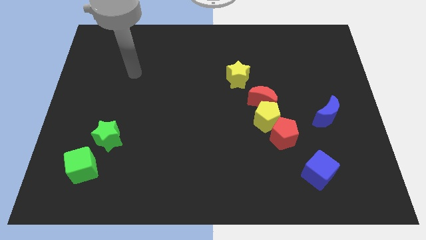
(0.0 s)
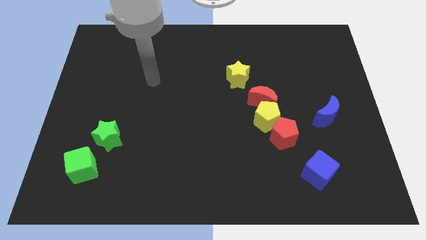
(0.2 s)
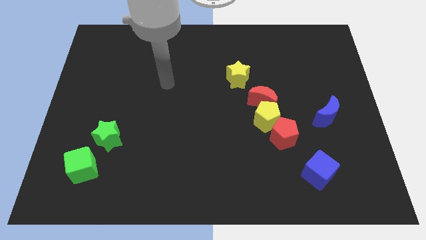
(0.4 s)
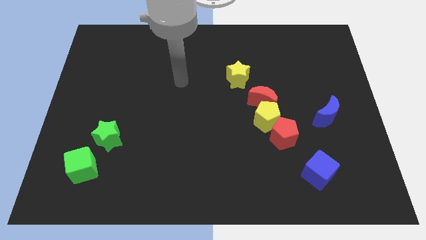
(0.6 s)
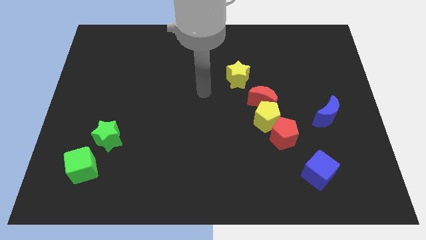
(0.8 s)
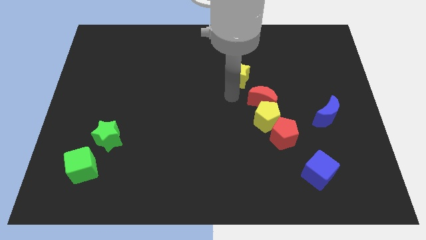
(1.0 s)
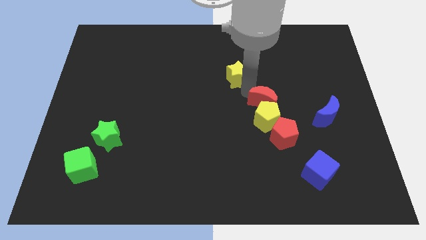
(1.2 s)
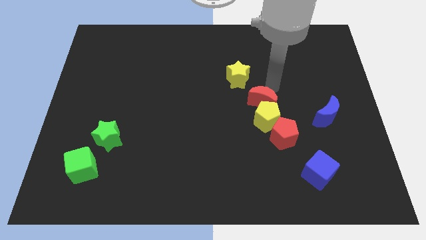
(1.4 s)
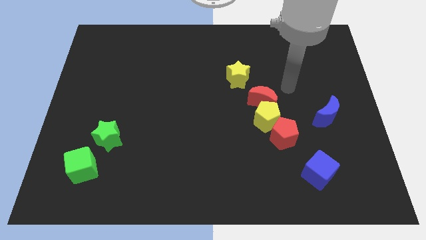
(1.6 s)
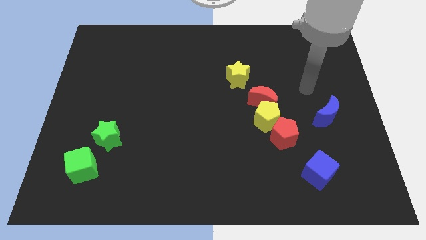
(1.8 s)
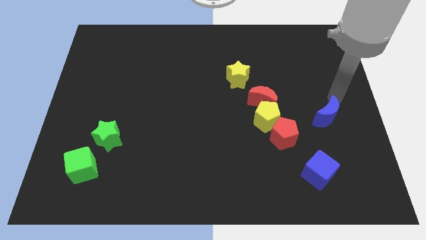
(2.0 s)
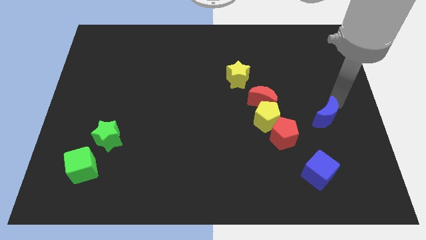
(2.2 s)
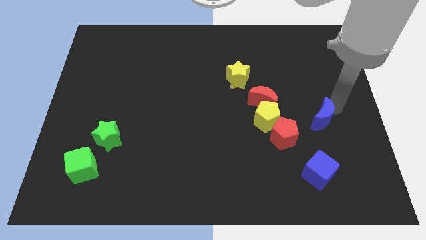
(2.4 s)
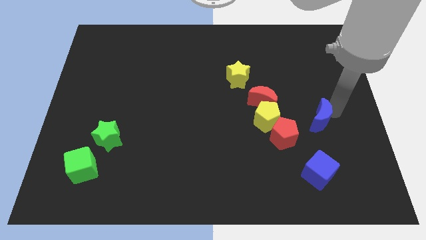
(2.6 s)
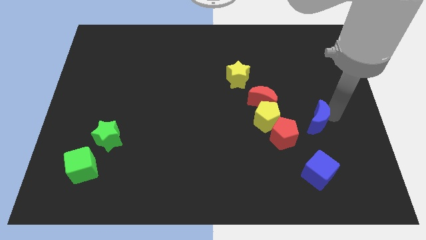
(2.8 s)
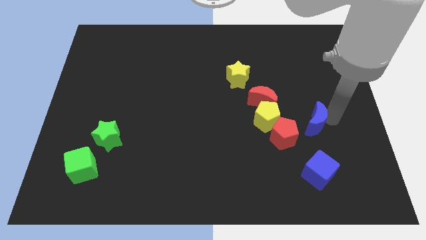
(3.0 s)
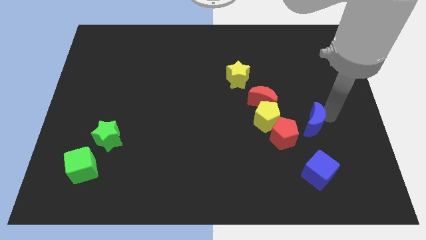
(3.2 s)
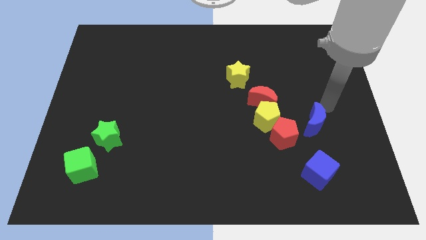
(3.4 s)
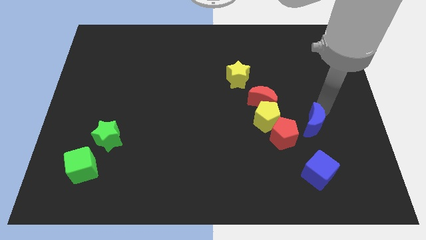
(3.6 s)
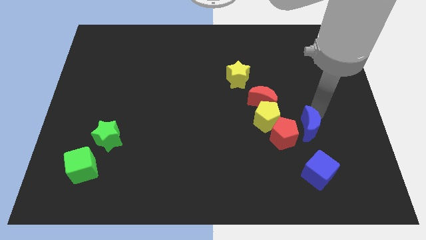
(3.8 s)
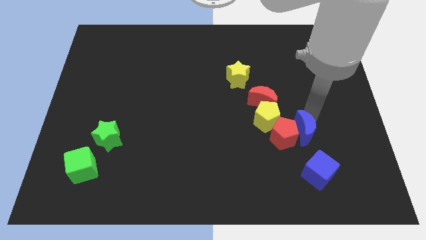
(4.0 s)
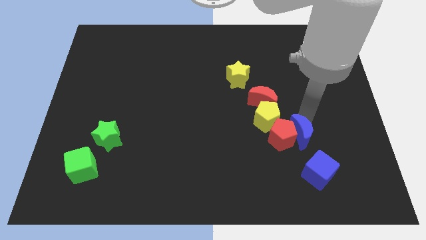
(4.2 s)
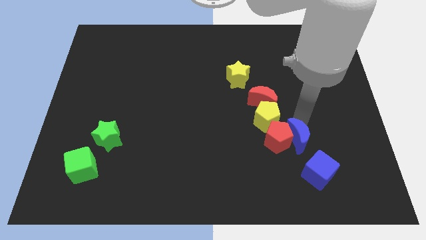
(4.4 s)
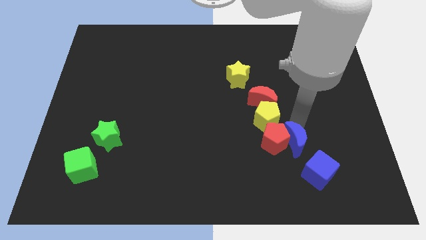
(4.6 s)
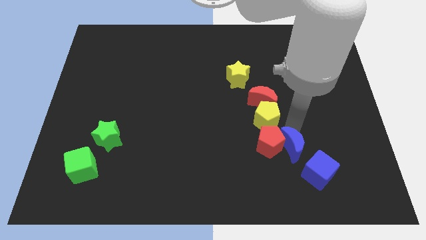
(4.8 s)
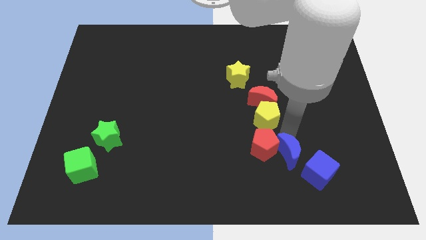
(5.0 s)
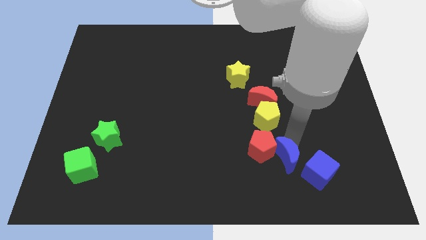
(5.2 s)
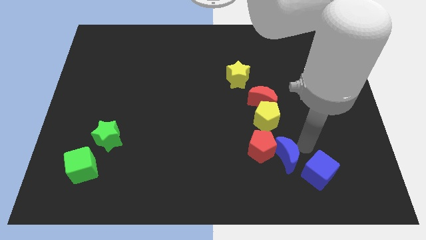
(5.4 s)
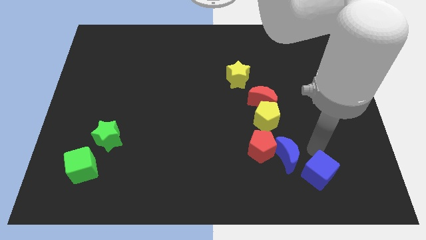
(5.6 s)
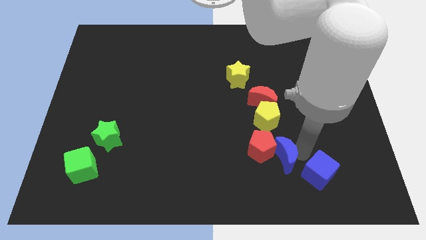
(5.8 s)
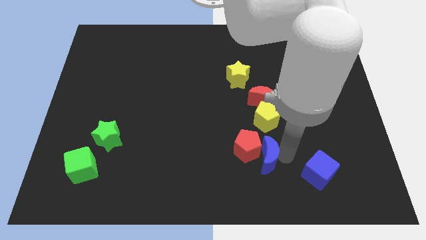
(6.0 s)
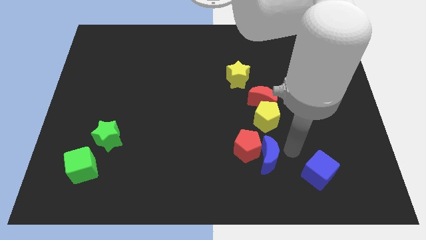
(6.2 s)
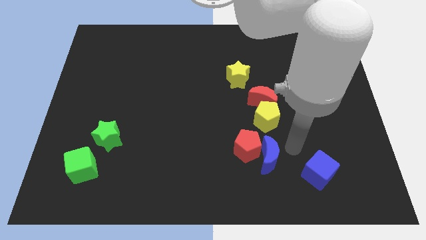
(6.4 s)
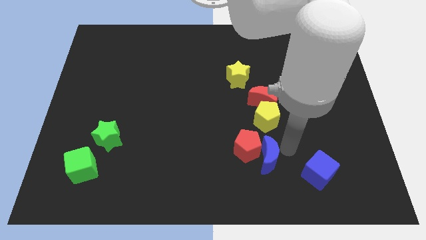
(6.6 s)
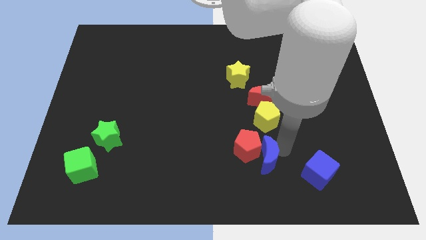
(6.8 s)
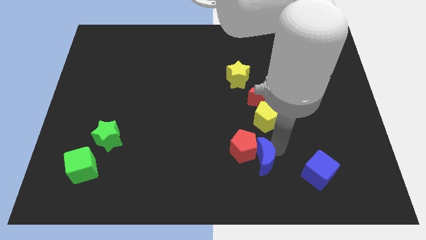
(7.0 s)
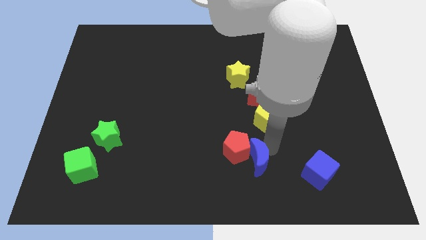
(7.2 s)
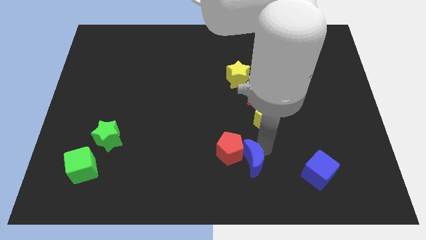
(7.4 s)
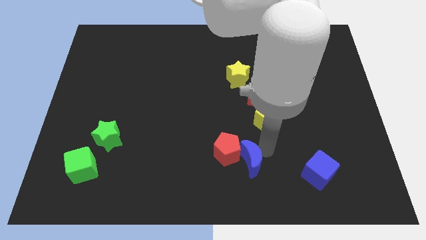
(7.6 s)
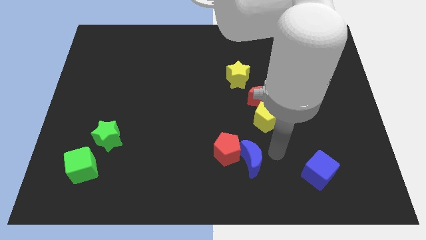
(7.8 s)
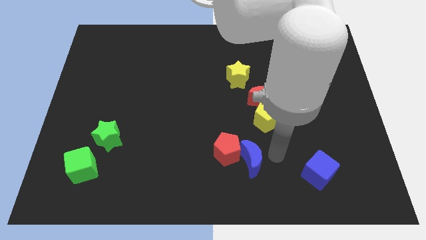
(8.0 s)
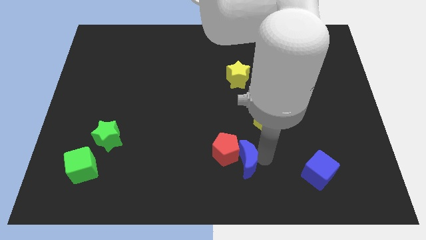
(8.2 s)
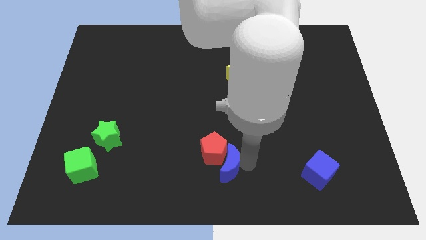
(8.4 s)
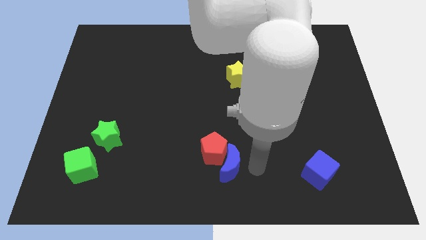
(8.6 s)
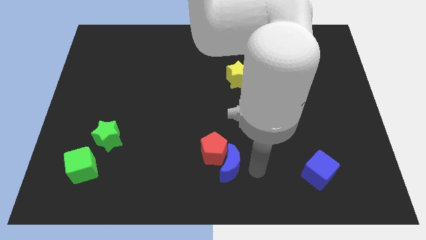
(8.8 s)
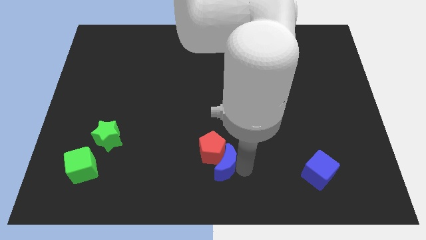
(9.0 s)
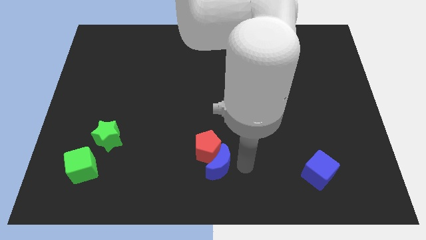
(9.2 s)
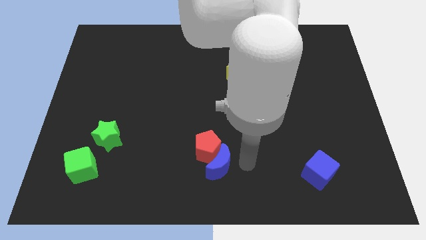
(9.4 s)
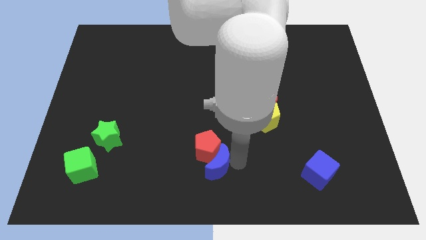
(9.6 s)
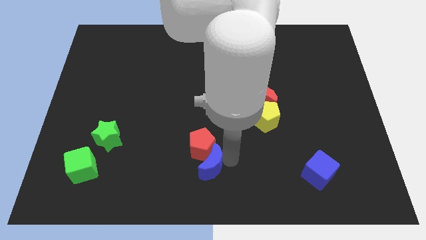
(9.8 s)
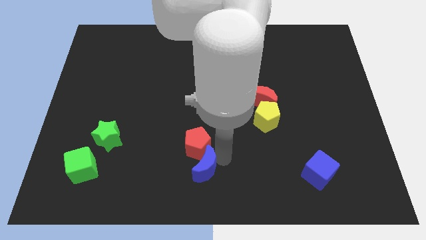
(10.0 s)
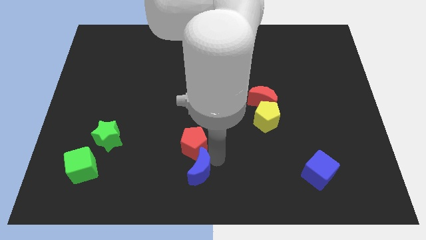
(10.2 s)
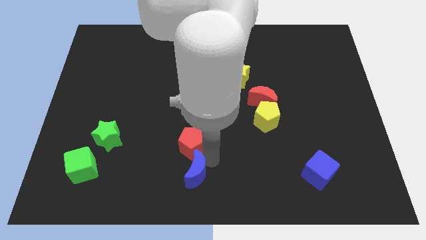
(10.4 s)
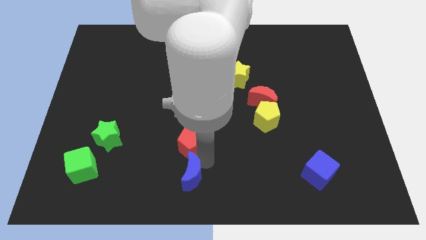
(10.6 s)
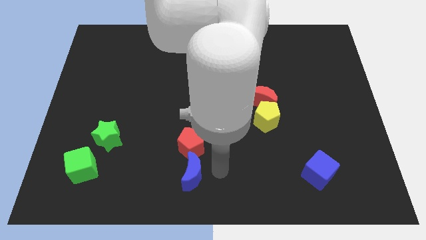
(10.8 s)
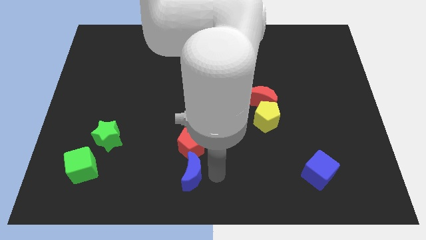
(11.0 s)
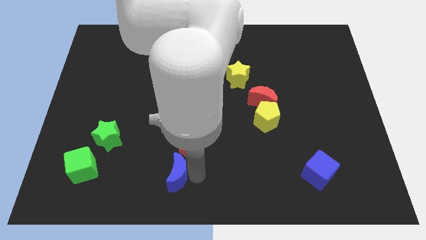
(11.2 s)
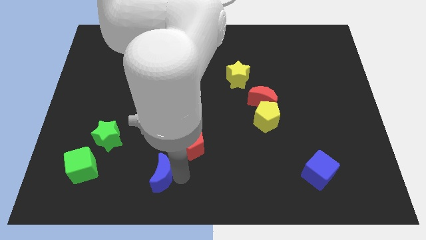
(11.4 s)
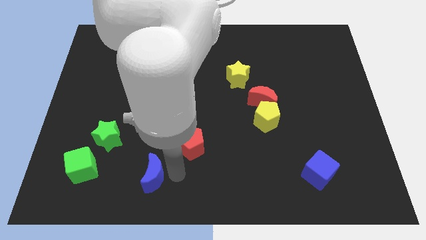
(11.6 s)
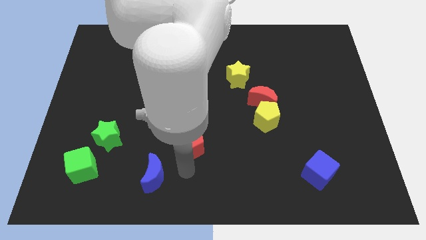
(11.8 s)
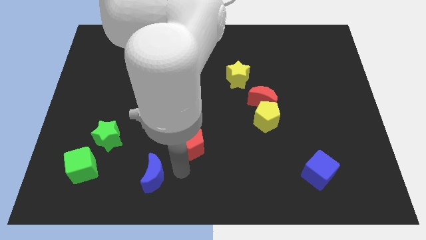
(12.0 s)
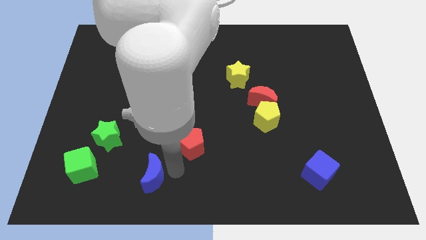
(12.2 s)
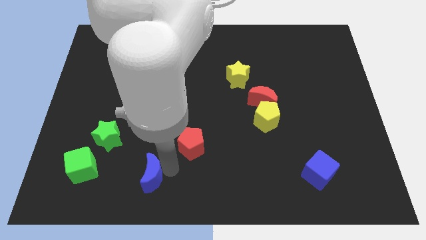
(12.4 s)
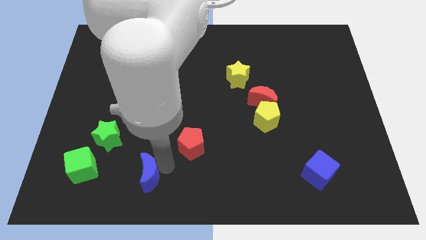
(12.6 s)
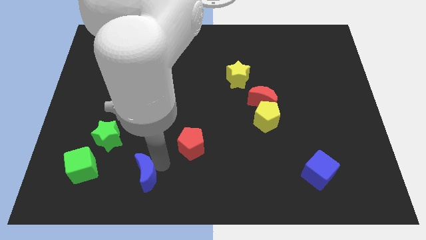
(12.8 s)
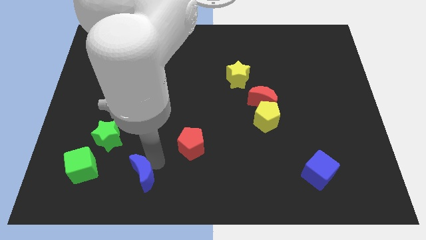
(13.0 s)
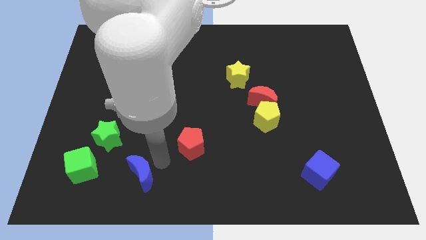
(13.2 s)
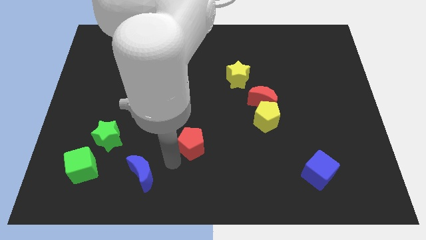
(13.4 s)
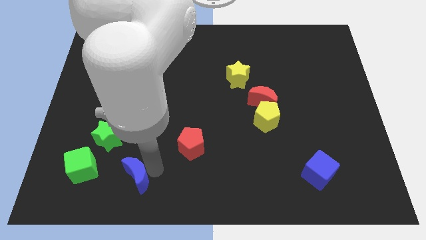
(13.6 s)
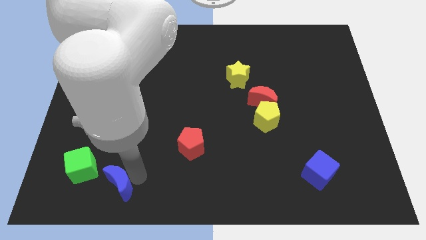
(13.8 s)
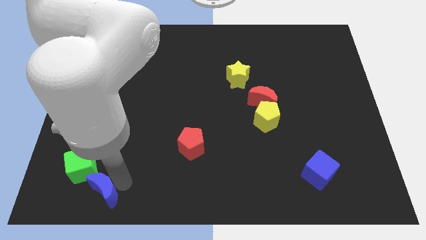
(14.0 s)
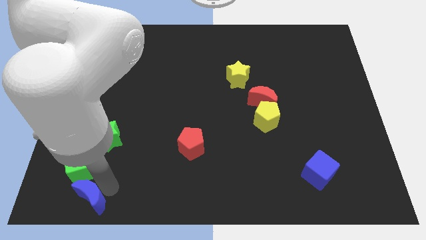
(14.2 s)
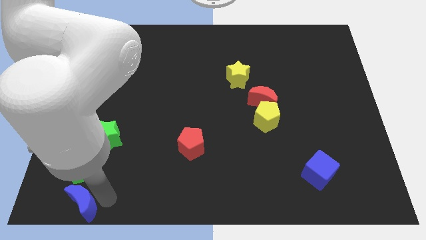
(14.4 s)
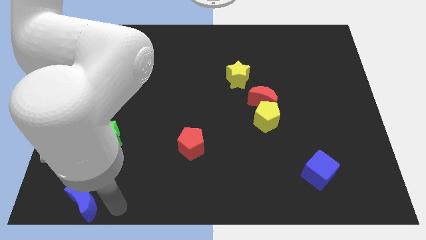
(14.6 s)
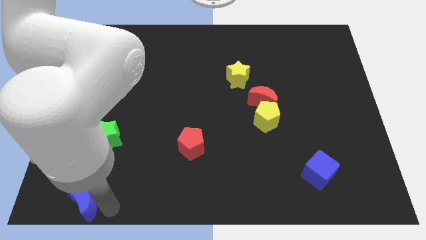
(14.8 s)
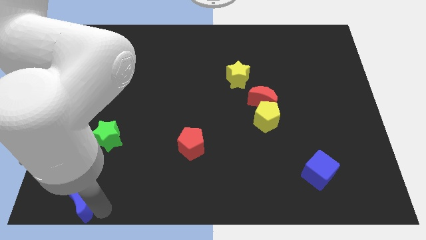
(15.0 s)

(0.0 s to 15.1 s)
put the blue moon to the bottom left corner
